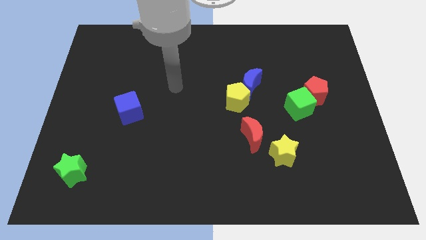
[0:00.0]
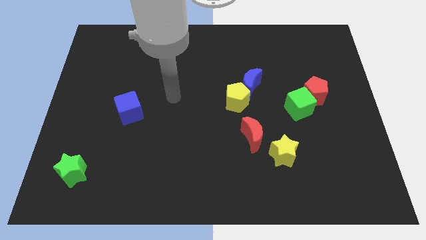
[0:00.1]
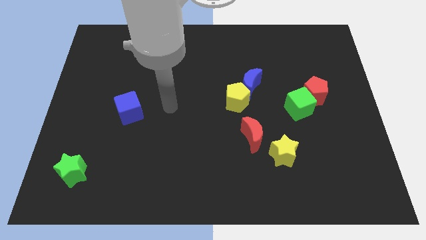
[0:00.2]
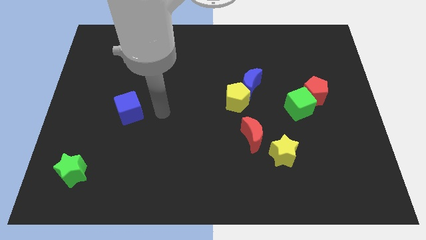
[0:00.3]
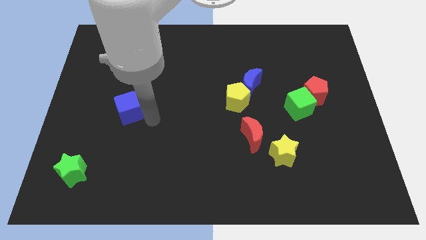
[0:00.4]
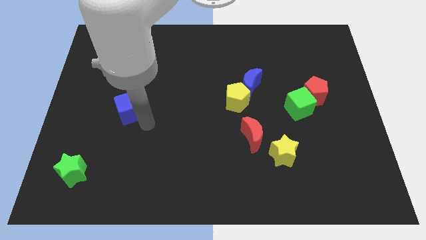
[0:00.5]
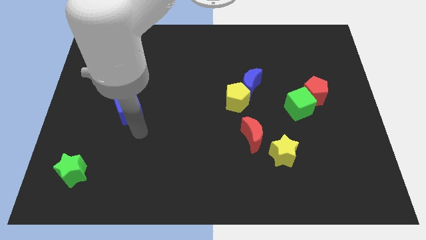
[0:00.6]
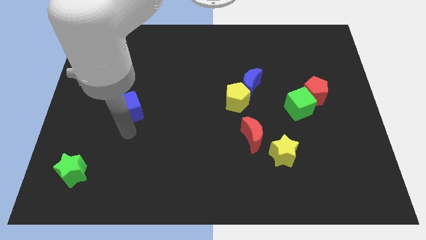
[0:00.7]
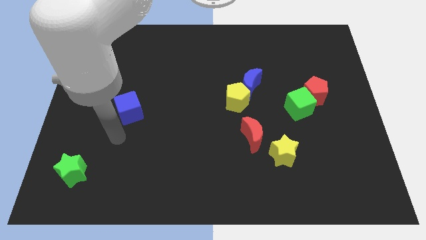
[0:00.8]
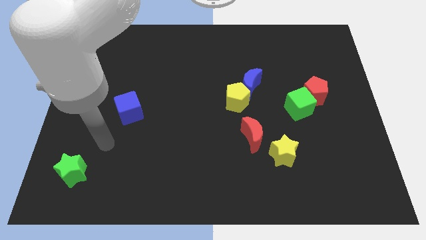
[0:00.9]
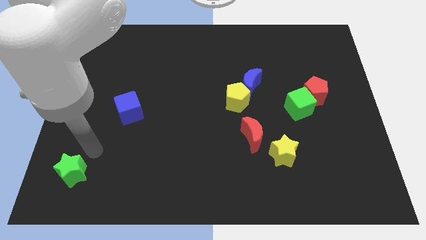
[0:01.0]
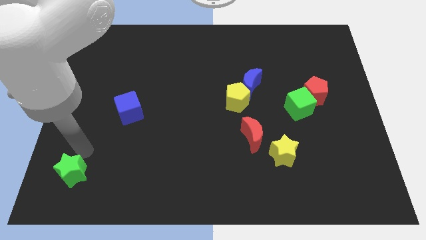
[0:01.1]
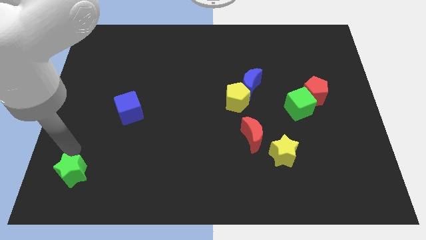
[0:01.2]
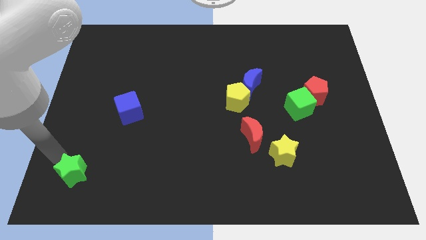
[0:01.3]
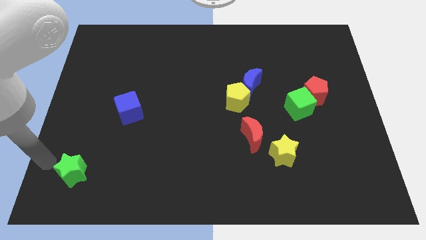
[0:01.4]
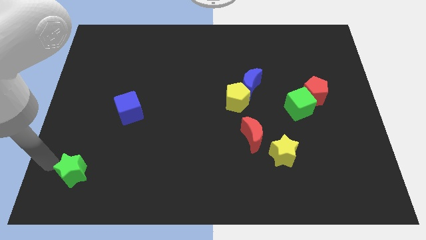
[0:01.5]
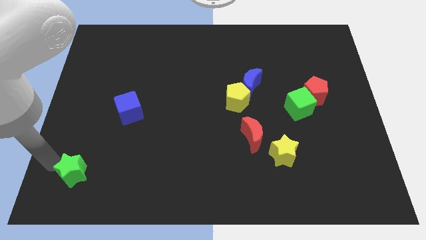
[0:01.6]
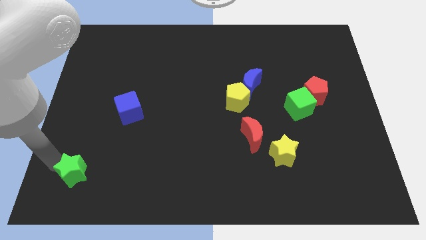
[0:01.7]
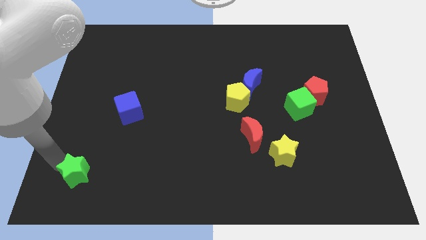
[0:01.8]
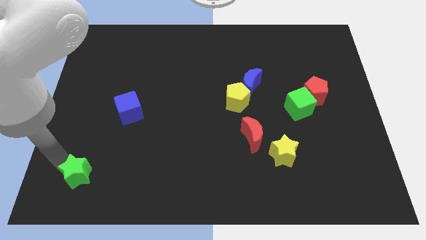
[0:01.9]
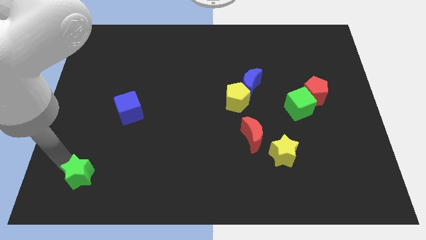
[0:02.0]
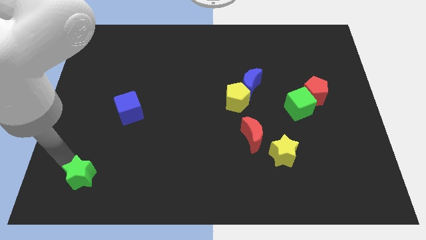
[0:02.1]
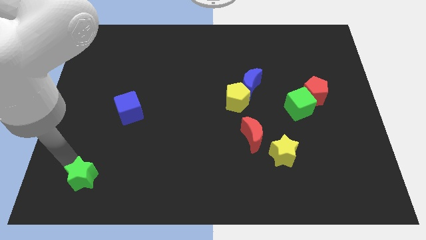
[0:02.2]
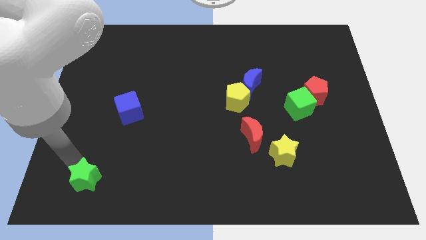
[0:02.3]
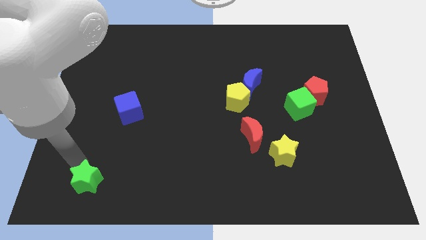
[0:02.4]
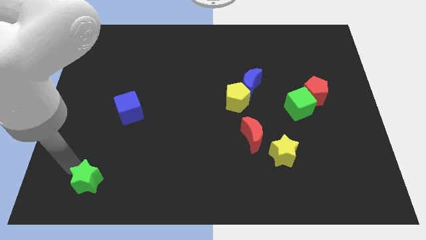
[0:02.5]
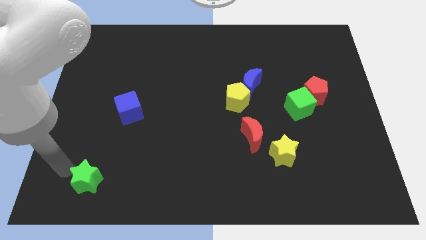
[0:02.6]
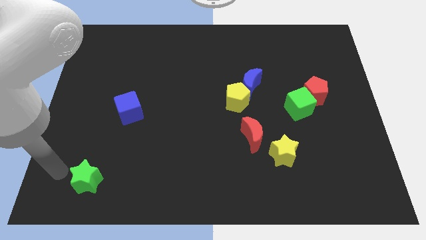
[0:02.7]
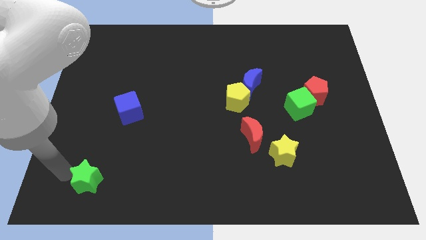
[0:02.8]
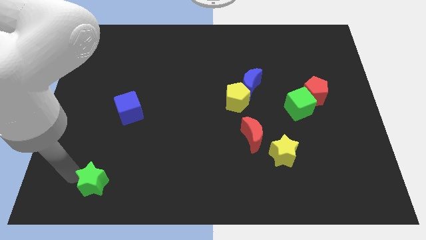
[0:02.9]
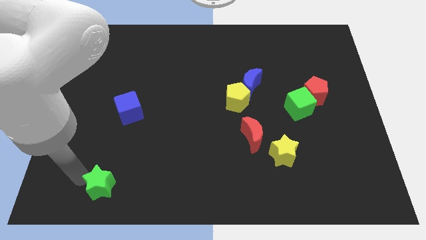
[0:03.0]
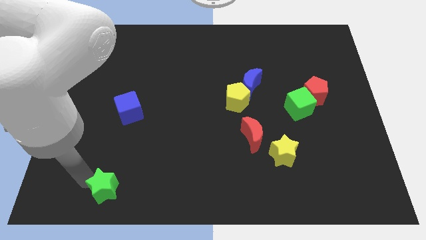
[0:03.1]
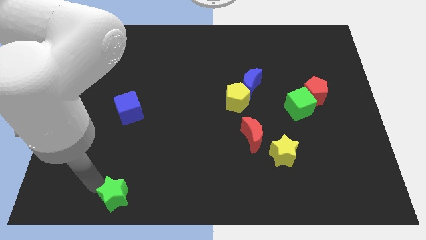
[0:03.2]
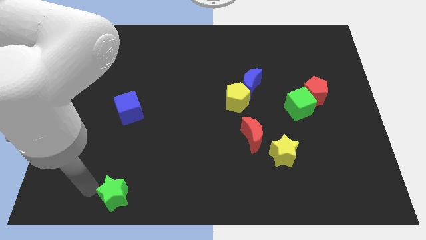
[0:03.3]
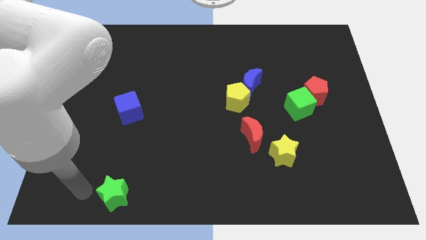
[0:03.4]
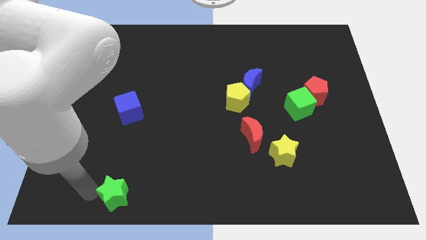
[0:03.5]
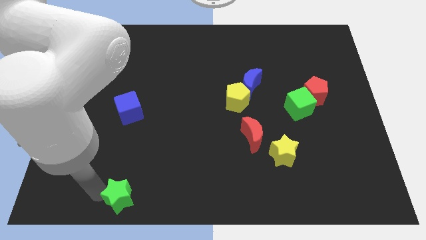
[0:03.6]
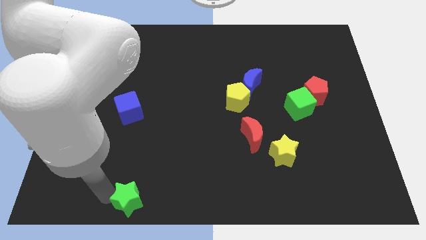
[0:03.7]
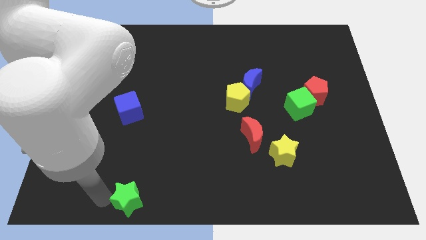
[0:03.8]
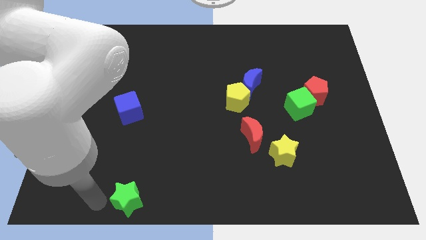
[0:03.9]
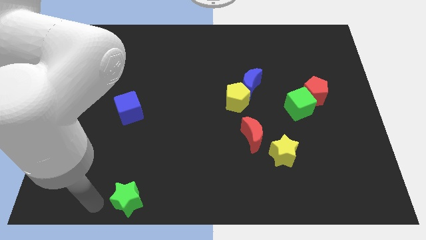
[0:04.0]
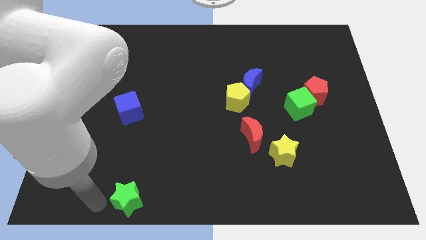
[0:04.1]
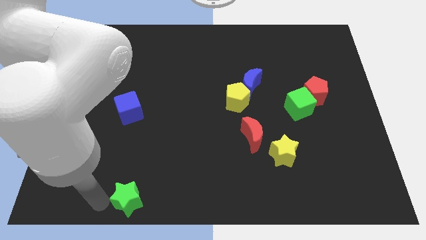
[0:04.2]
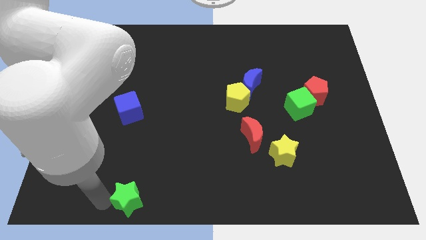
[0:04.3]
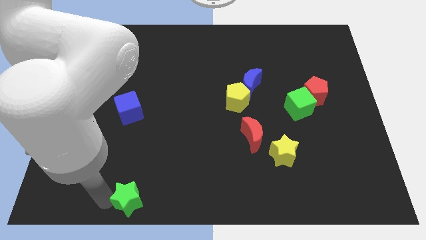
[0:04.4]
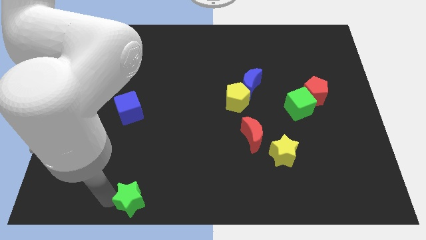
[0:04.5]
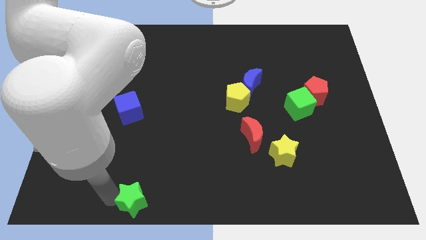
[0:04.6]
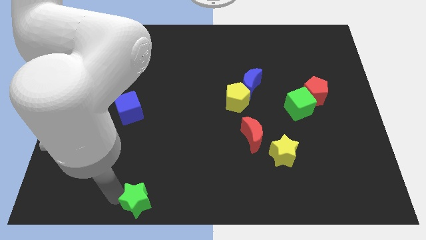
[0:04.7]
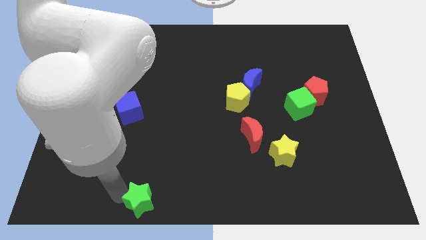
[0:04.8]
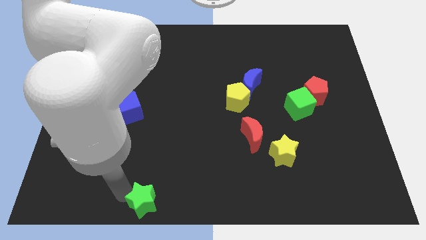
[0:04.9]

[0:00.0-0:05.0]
put the green star to the bottom
